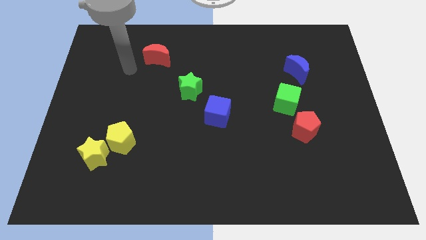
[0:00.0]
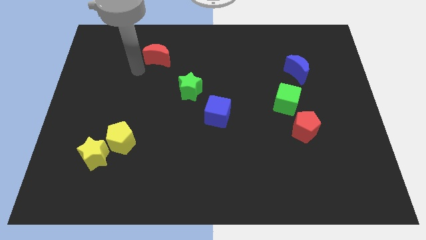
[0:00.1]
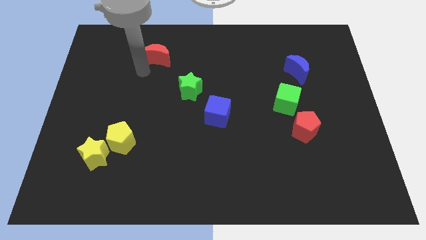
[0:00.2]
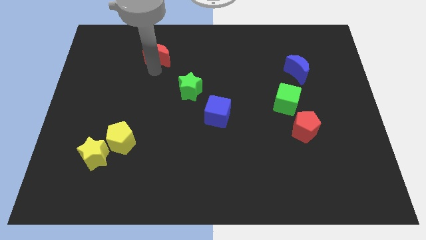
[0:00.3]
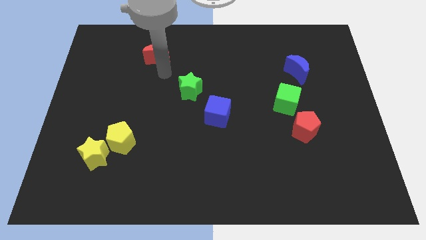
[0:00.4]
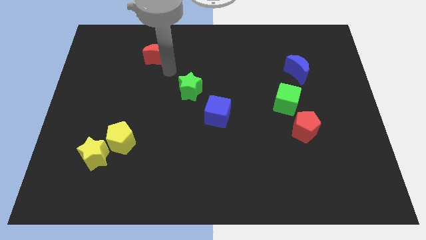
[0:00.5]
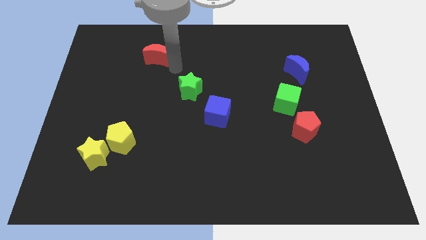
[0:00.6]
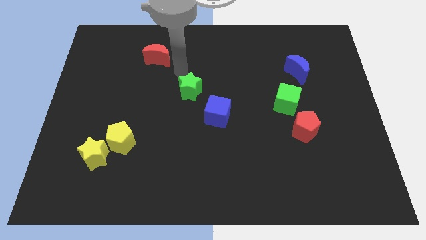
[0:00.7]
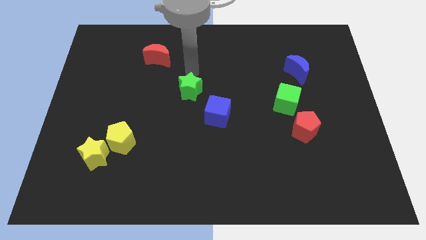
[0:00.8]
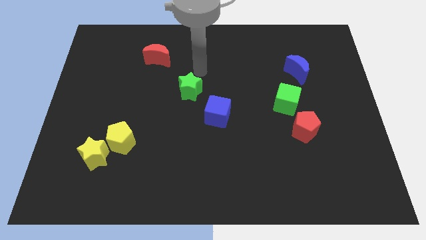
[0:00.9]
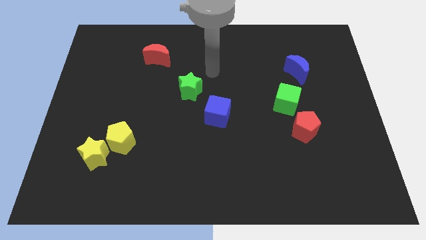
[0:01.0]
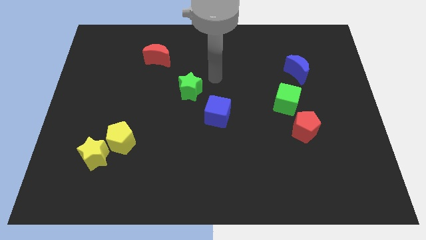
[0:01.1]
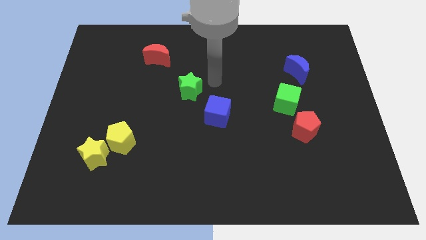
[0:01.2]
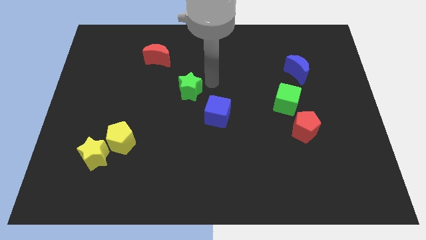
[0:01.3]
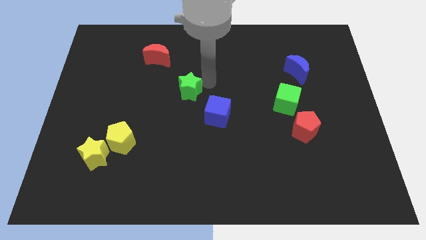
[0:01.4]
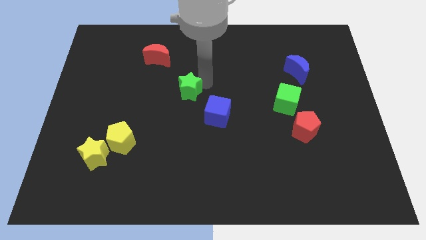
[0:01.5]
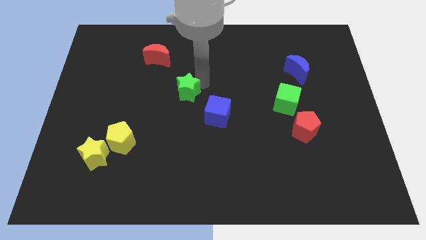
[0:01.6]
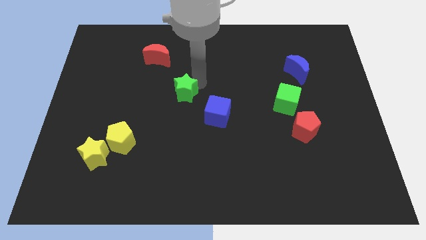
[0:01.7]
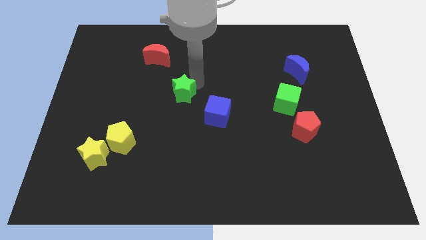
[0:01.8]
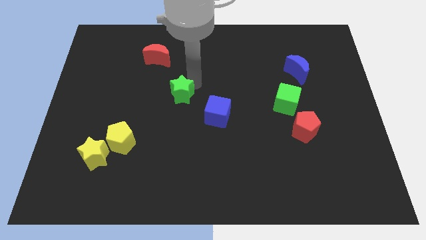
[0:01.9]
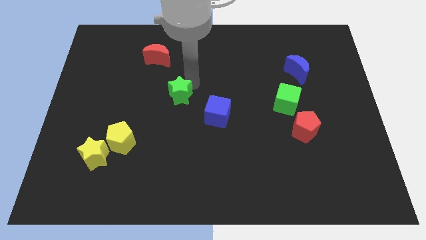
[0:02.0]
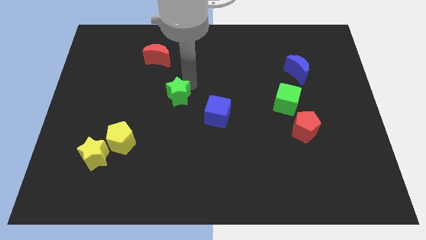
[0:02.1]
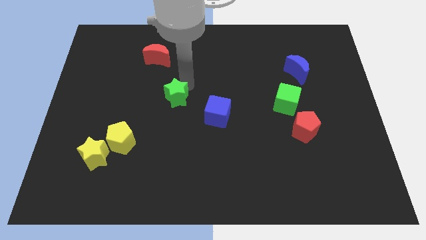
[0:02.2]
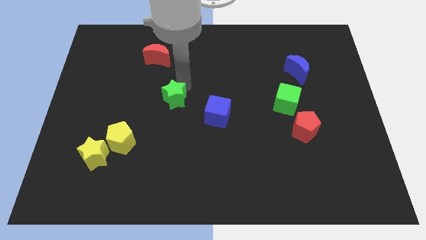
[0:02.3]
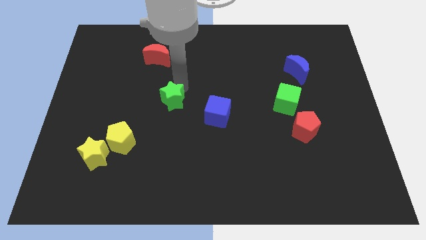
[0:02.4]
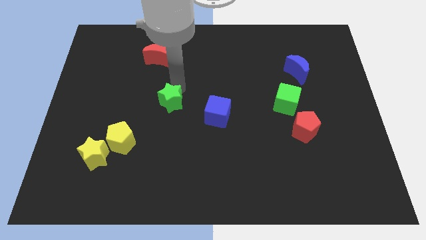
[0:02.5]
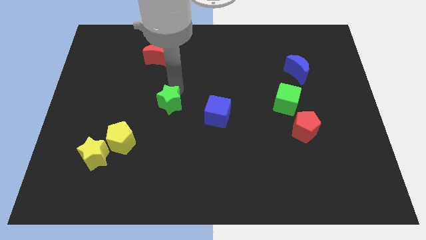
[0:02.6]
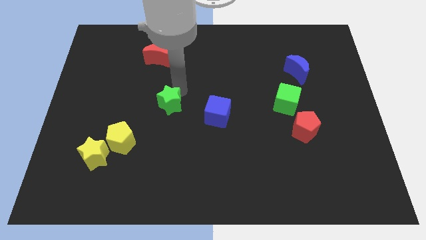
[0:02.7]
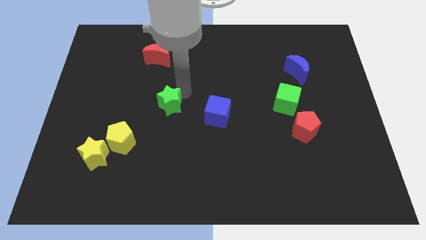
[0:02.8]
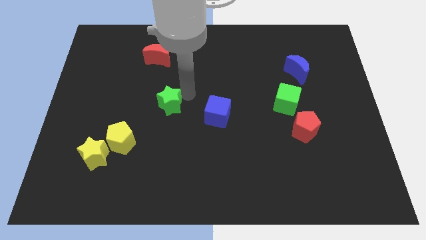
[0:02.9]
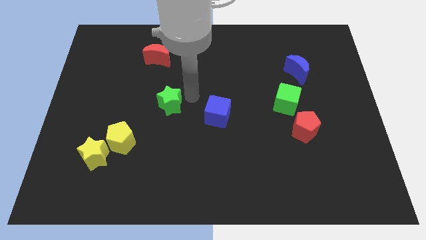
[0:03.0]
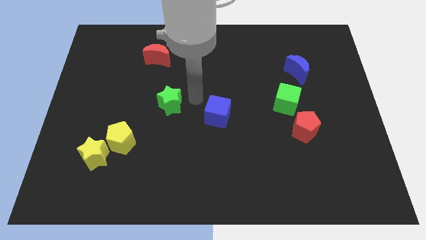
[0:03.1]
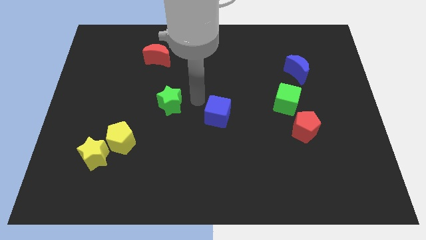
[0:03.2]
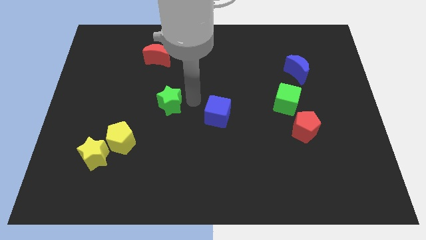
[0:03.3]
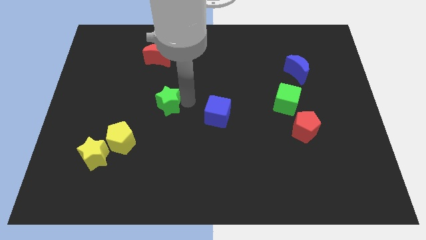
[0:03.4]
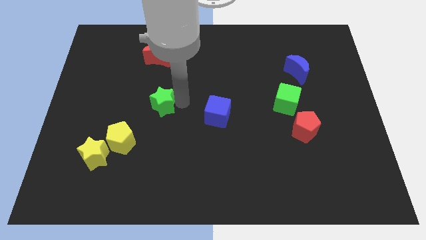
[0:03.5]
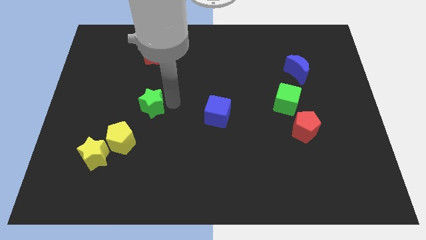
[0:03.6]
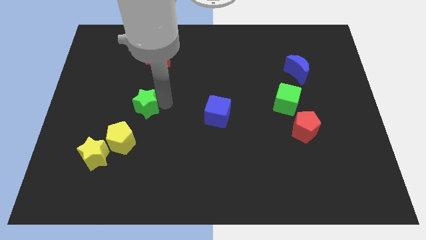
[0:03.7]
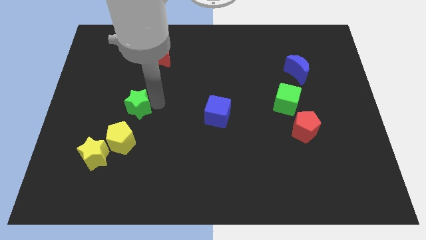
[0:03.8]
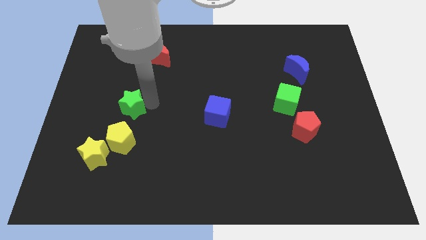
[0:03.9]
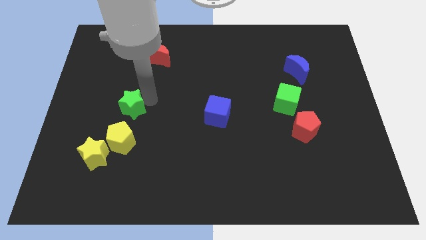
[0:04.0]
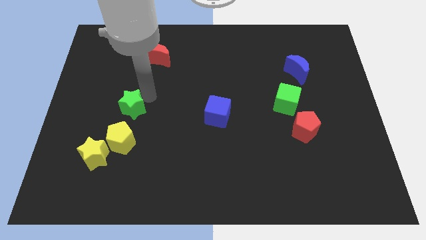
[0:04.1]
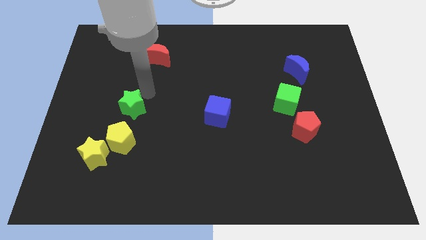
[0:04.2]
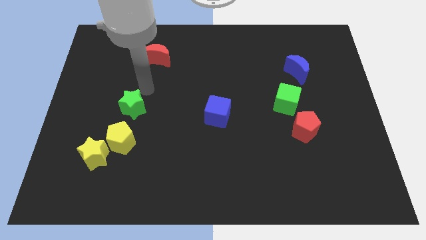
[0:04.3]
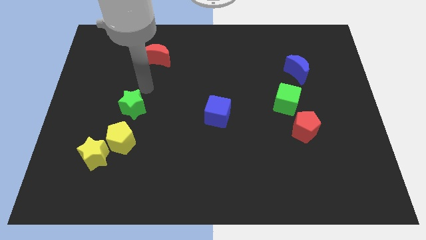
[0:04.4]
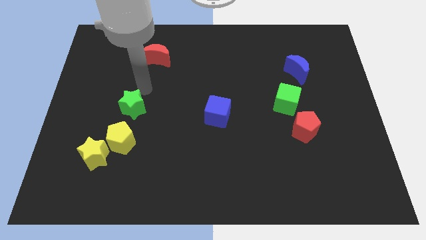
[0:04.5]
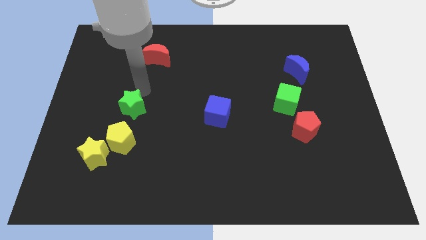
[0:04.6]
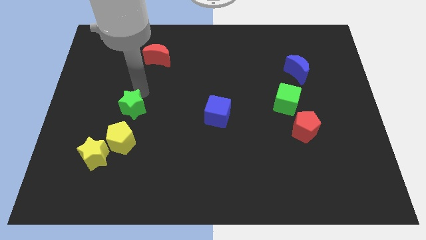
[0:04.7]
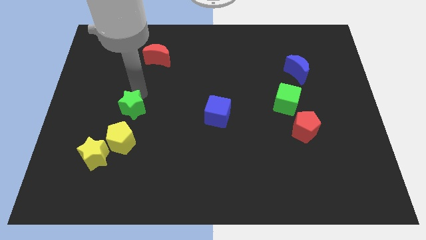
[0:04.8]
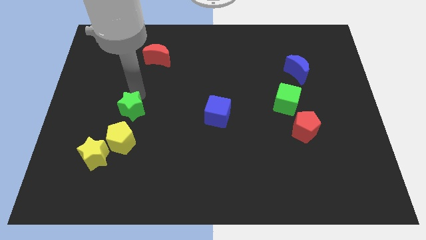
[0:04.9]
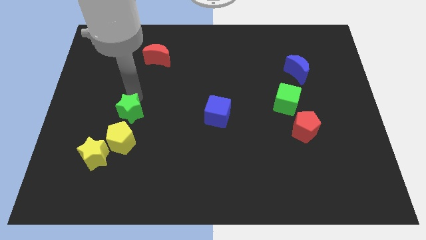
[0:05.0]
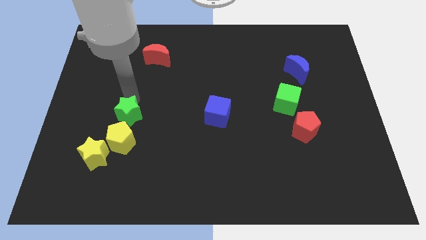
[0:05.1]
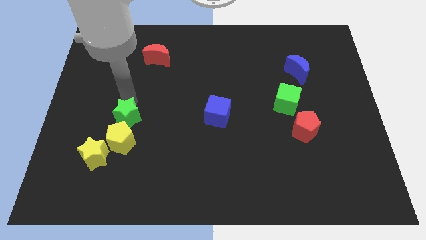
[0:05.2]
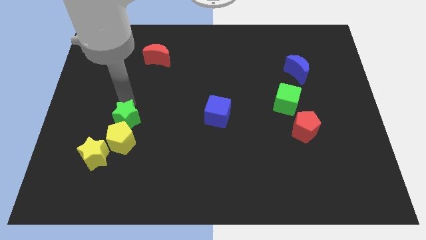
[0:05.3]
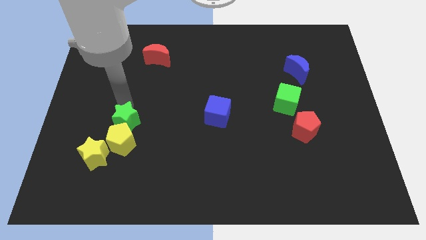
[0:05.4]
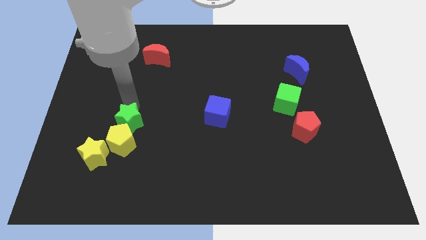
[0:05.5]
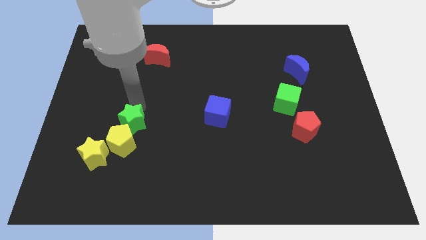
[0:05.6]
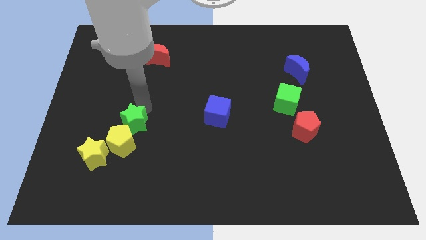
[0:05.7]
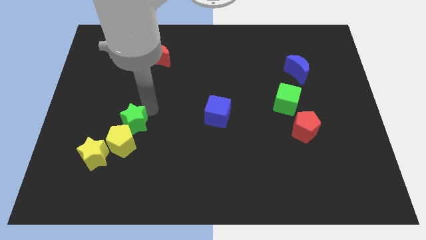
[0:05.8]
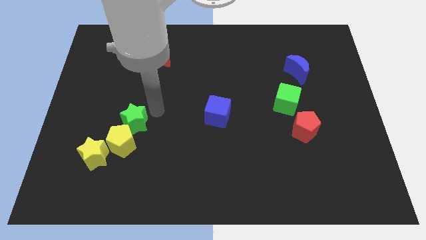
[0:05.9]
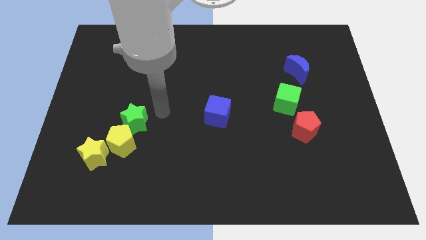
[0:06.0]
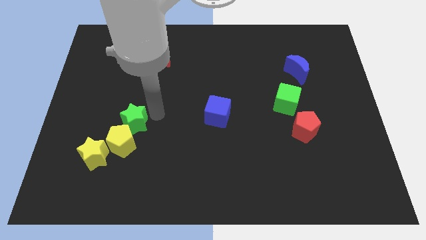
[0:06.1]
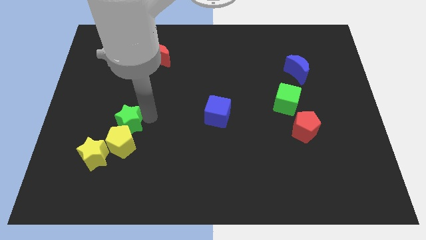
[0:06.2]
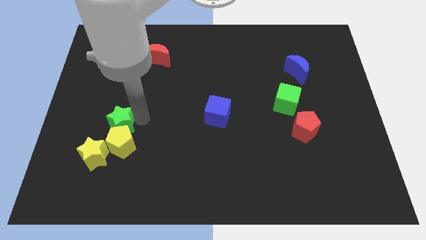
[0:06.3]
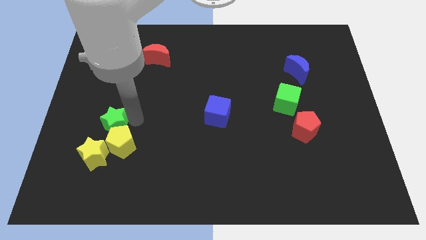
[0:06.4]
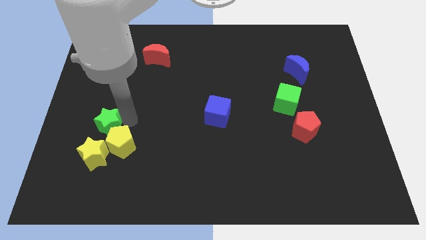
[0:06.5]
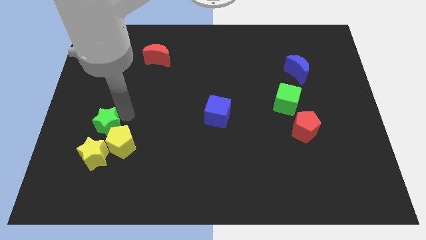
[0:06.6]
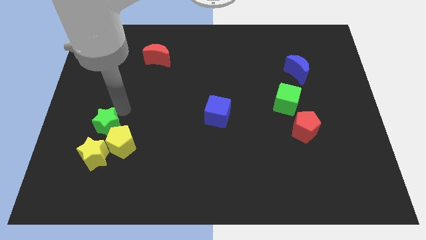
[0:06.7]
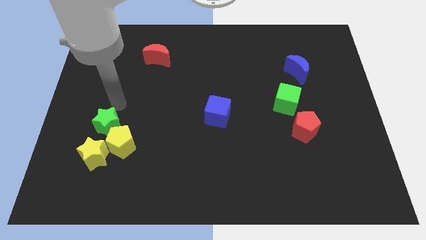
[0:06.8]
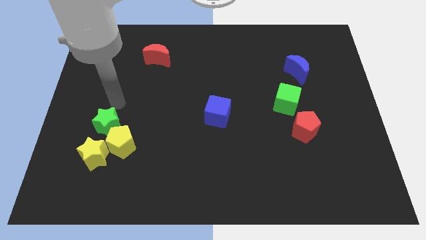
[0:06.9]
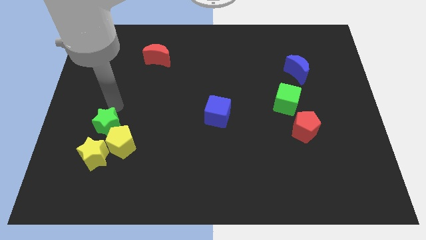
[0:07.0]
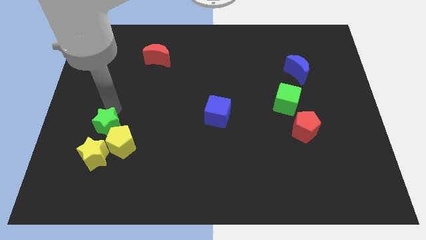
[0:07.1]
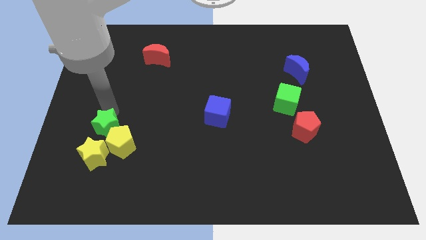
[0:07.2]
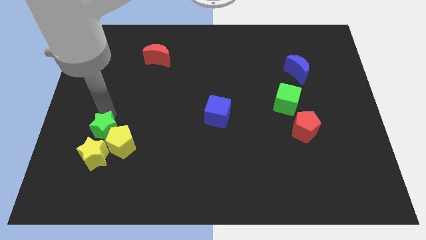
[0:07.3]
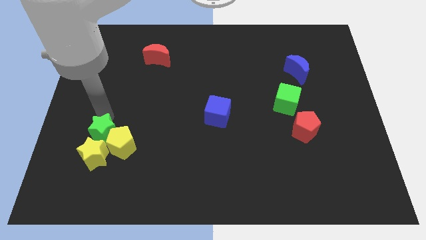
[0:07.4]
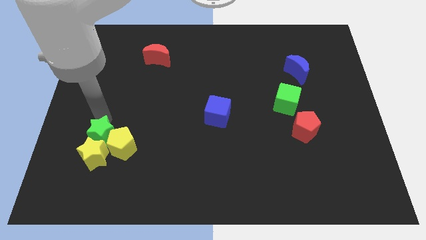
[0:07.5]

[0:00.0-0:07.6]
put the green star to the yellow star

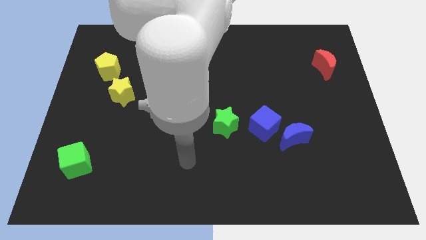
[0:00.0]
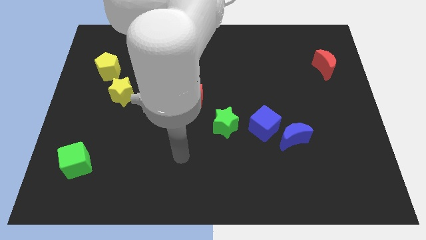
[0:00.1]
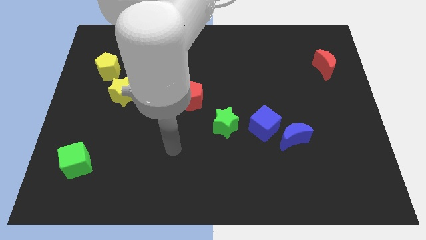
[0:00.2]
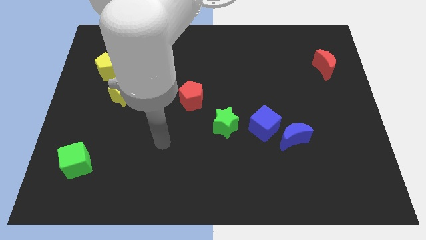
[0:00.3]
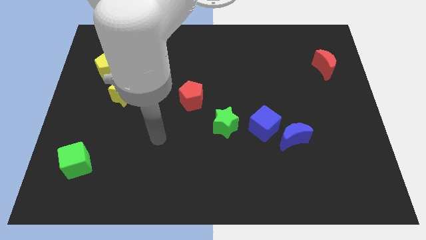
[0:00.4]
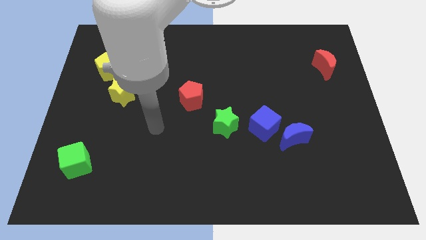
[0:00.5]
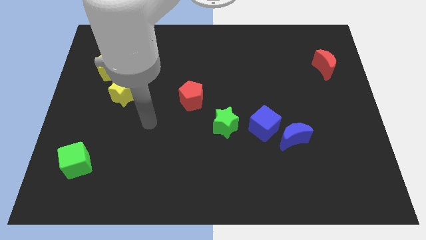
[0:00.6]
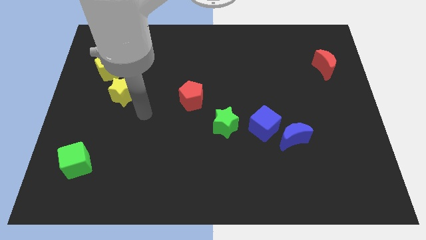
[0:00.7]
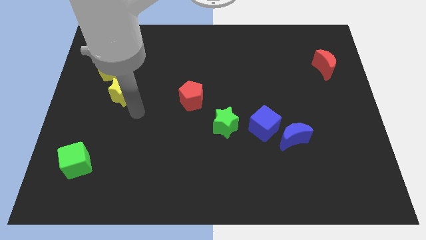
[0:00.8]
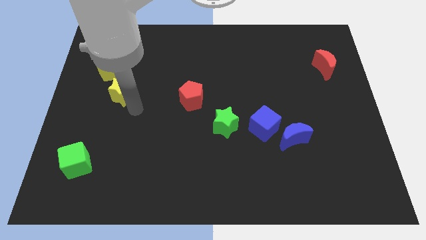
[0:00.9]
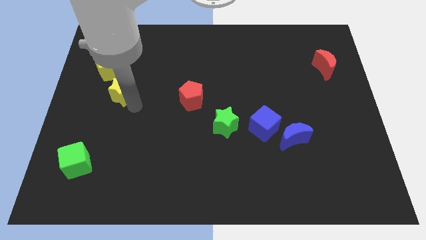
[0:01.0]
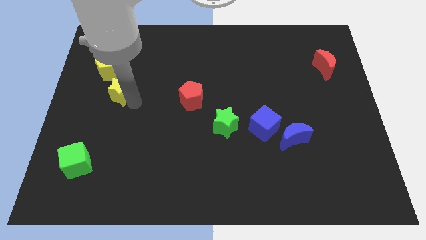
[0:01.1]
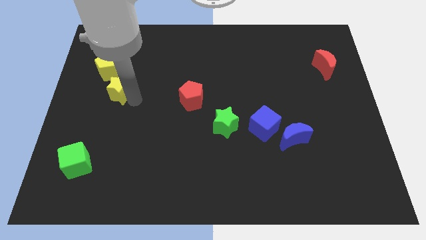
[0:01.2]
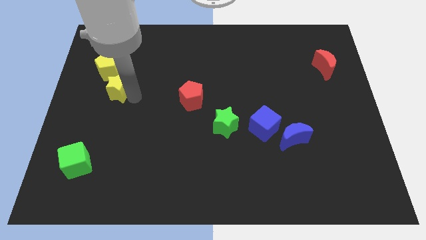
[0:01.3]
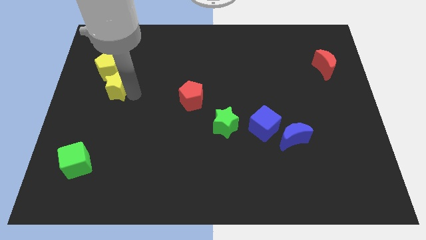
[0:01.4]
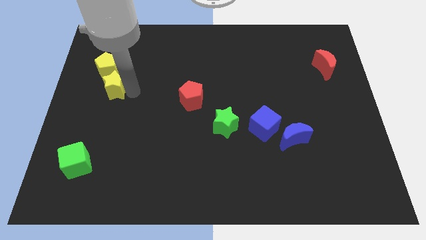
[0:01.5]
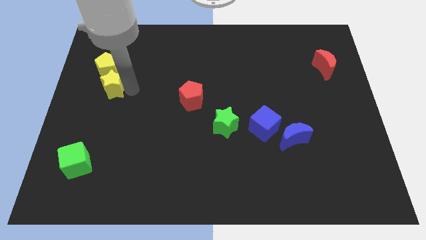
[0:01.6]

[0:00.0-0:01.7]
put the yellow star towards the yellow pentagon
